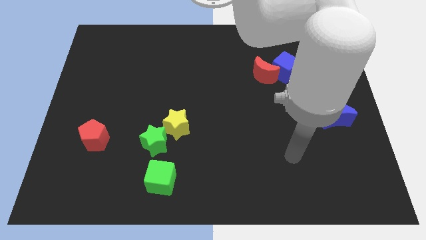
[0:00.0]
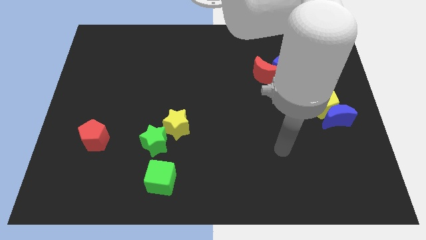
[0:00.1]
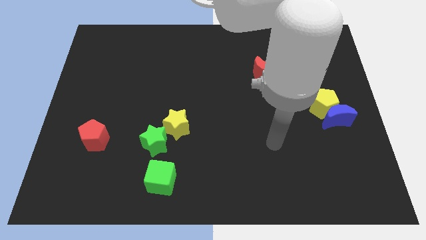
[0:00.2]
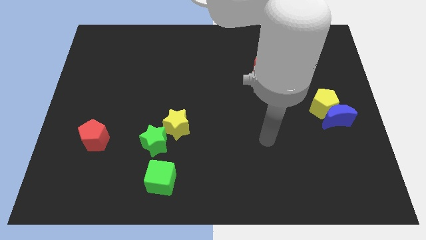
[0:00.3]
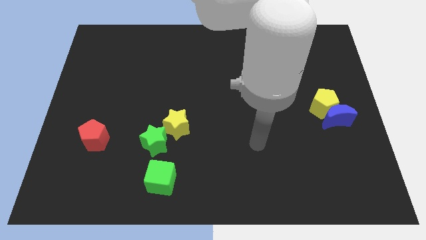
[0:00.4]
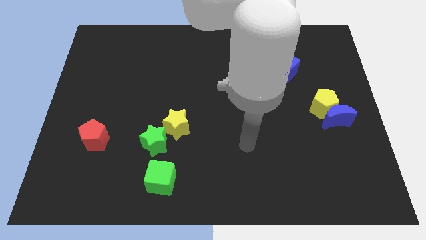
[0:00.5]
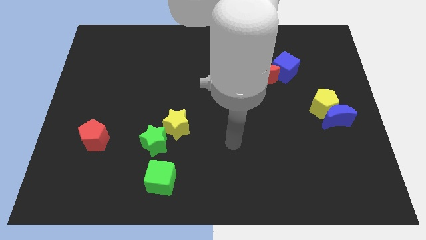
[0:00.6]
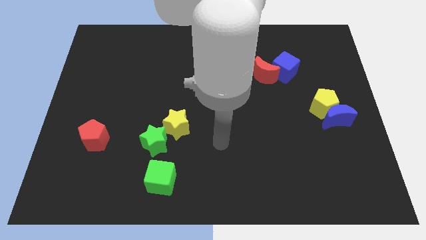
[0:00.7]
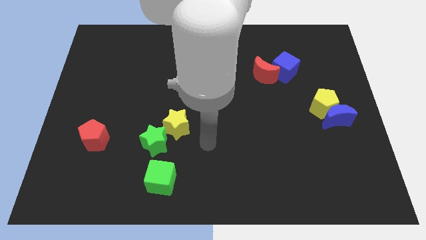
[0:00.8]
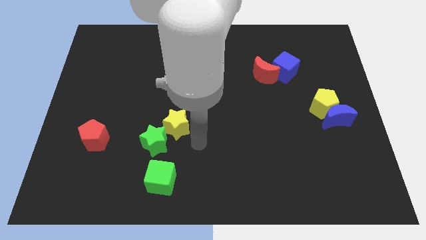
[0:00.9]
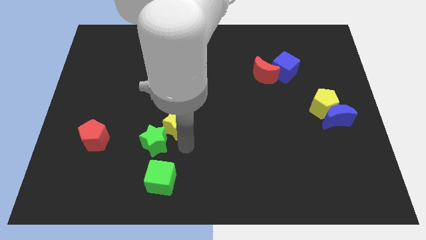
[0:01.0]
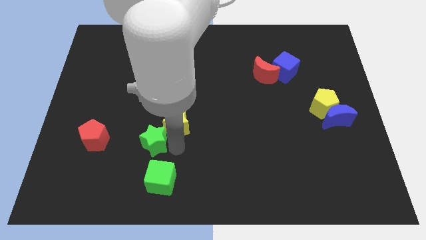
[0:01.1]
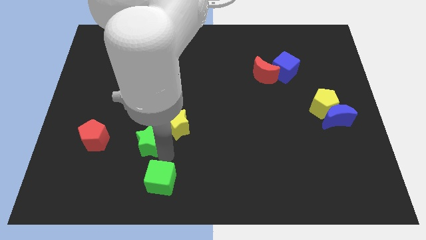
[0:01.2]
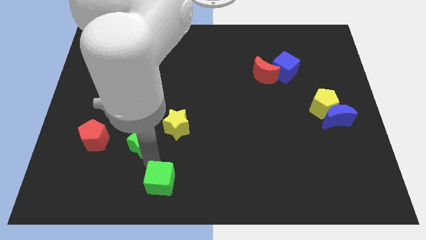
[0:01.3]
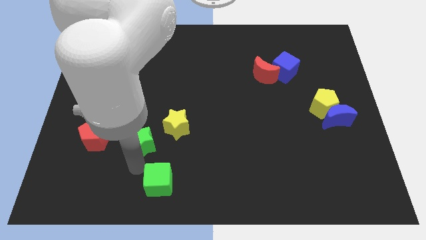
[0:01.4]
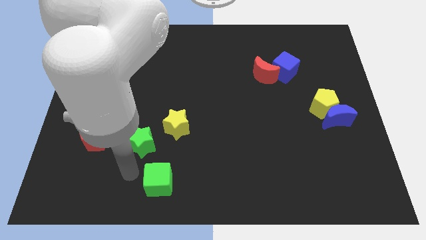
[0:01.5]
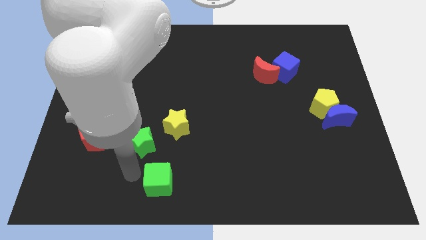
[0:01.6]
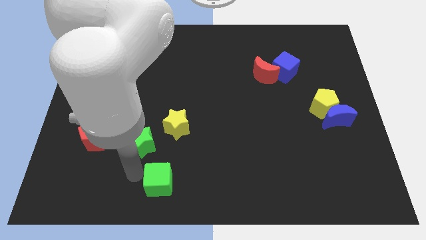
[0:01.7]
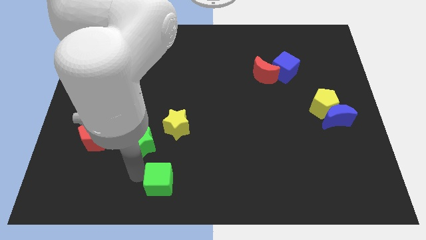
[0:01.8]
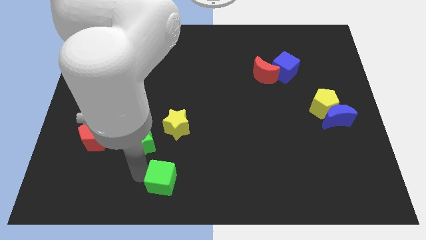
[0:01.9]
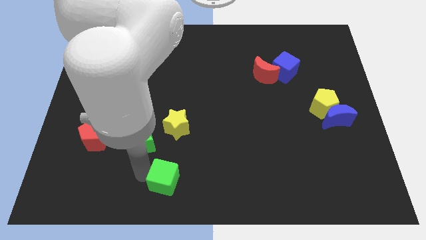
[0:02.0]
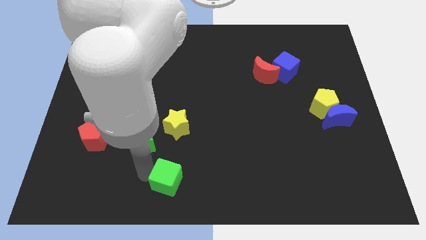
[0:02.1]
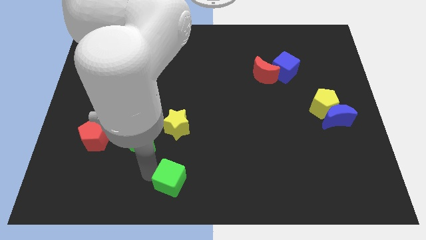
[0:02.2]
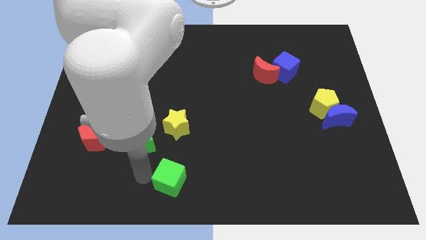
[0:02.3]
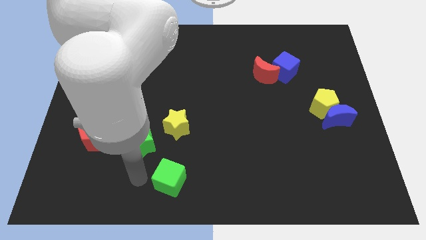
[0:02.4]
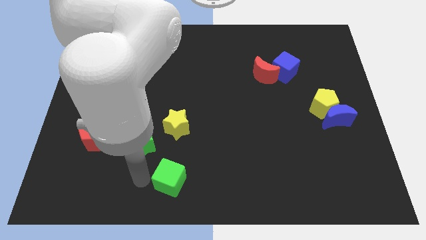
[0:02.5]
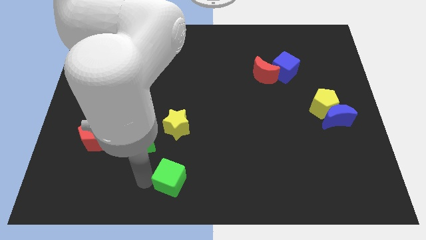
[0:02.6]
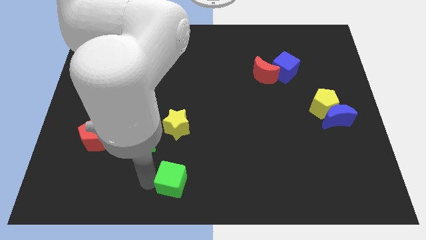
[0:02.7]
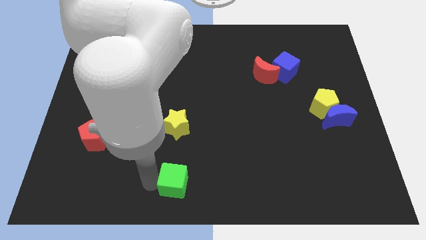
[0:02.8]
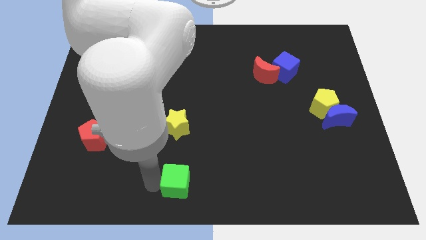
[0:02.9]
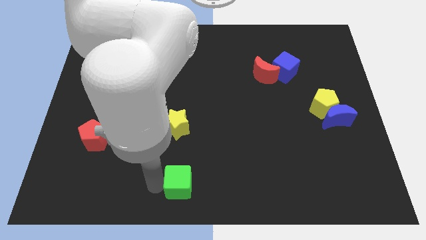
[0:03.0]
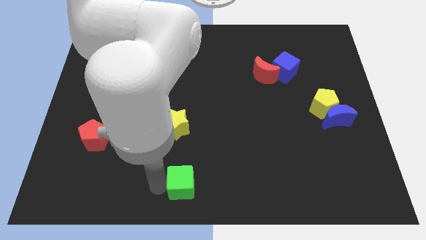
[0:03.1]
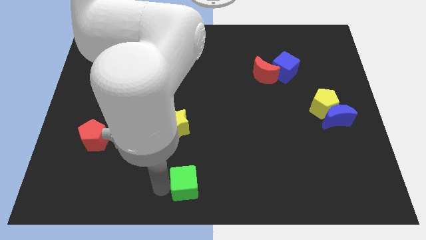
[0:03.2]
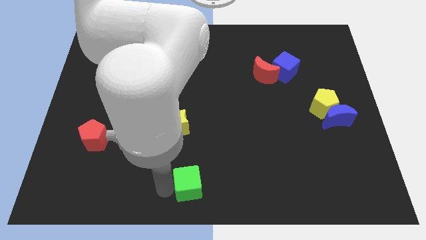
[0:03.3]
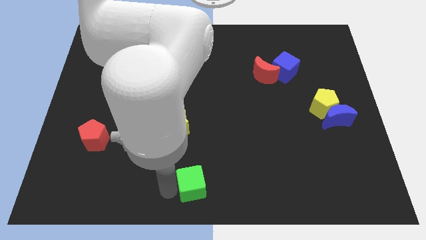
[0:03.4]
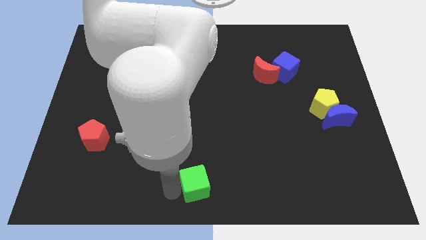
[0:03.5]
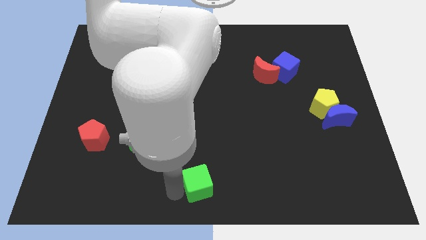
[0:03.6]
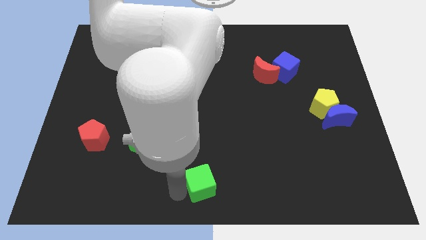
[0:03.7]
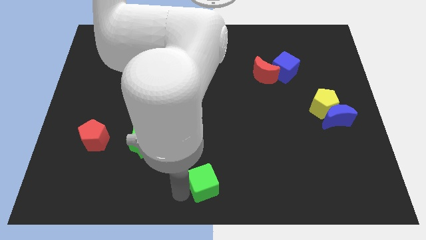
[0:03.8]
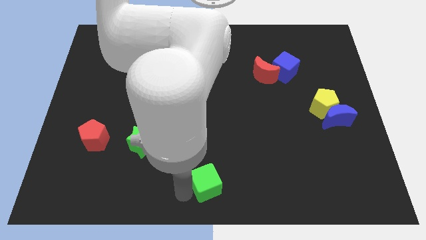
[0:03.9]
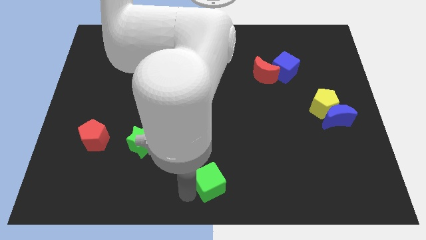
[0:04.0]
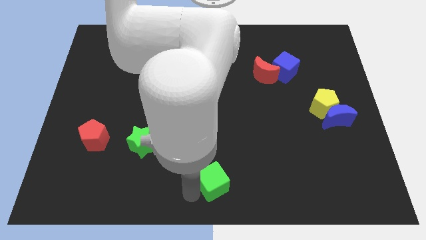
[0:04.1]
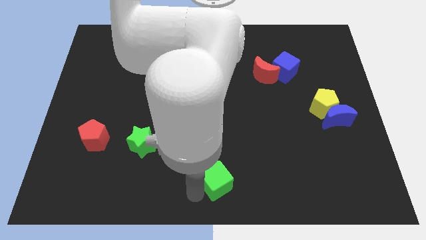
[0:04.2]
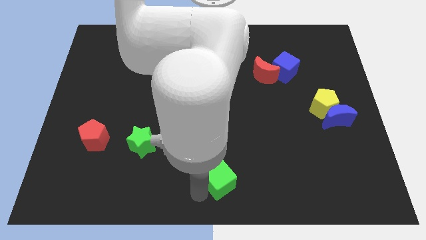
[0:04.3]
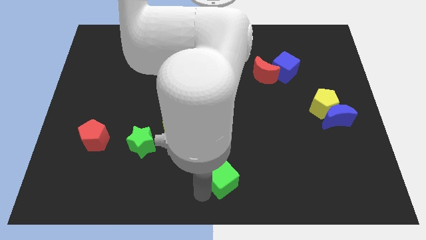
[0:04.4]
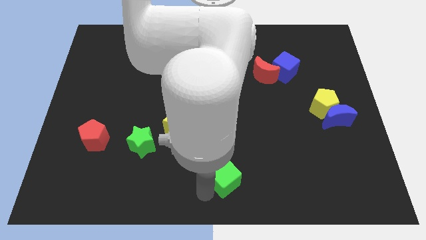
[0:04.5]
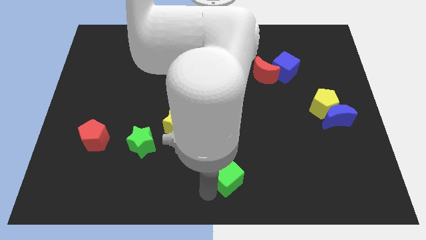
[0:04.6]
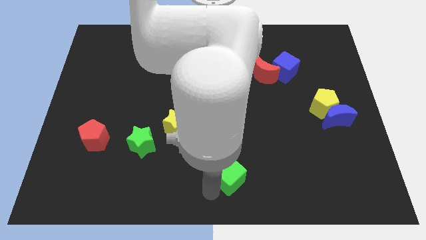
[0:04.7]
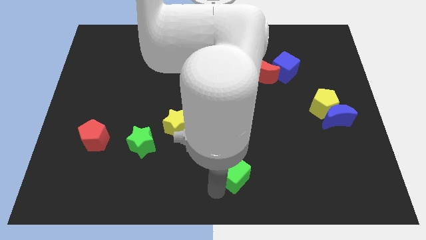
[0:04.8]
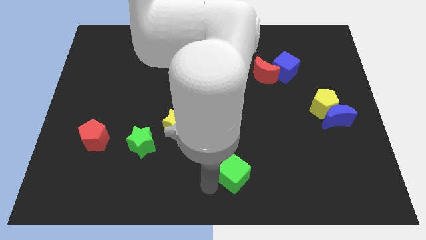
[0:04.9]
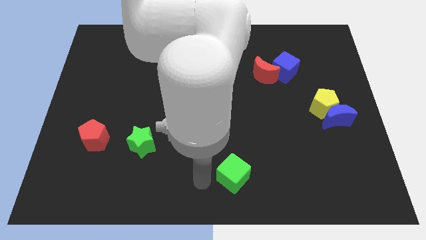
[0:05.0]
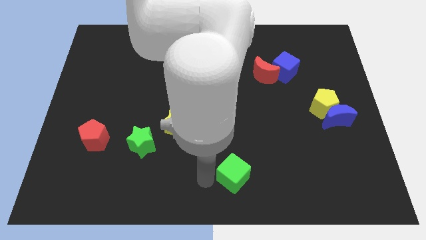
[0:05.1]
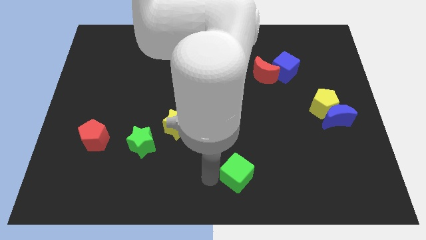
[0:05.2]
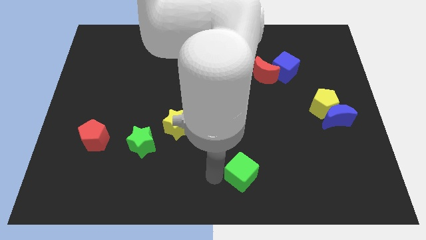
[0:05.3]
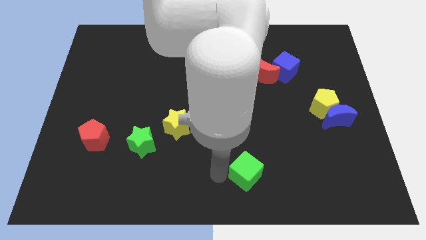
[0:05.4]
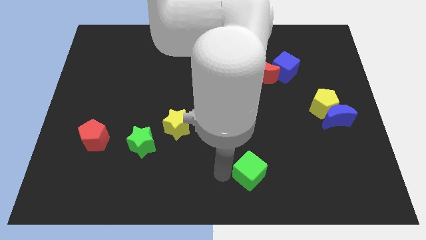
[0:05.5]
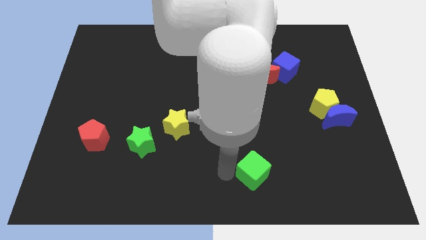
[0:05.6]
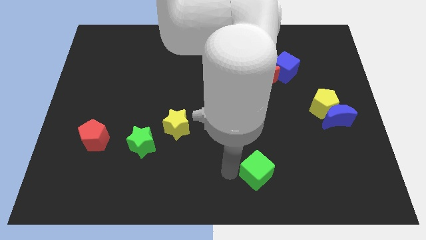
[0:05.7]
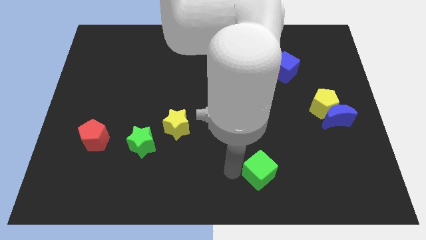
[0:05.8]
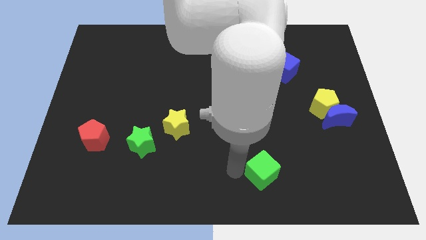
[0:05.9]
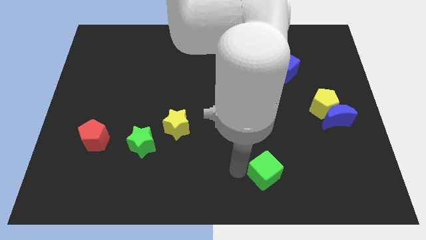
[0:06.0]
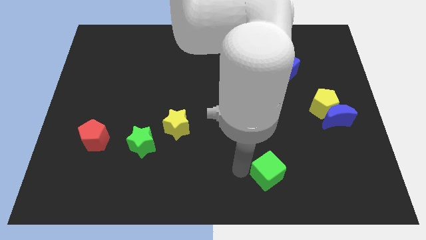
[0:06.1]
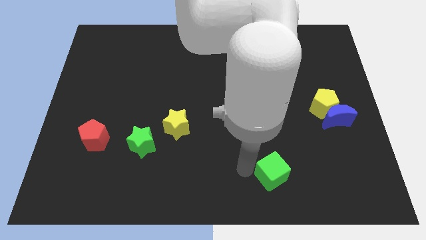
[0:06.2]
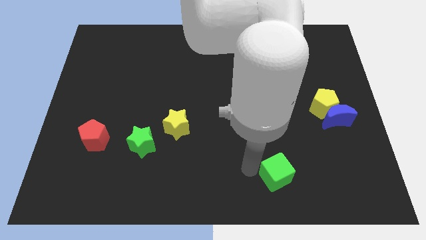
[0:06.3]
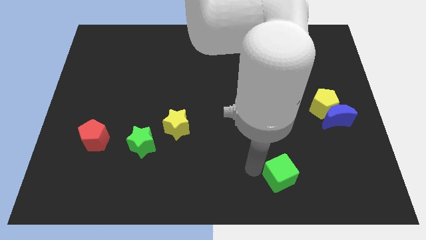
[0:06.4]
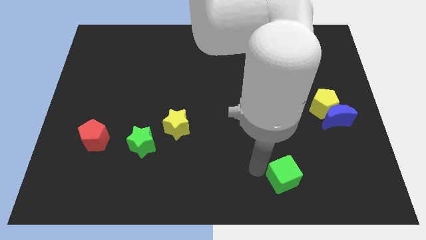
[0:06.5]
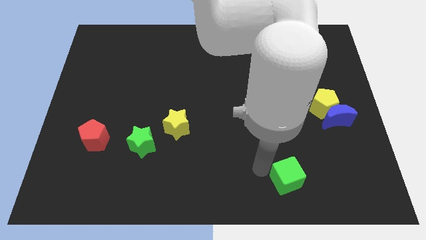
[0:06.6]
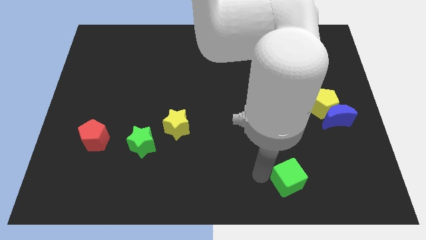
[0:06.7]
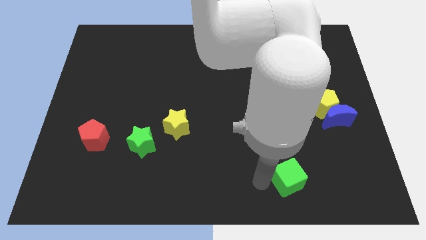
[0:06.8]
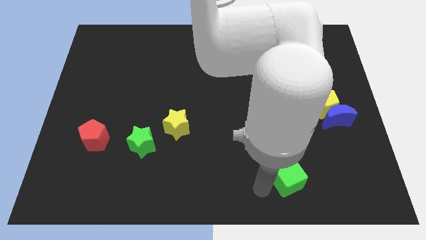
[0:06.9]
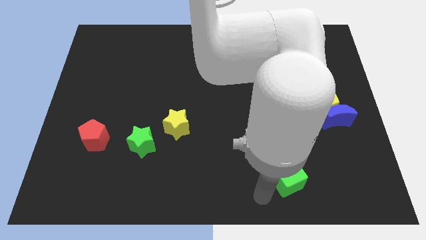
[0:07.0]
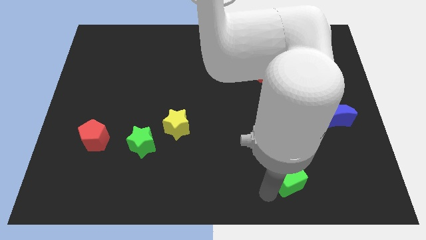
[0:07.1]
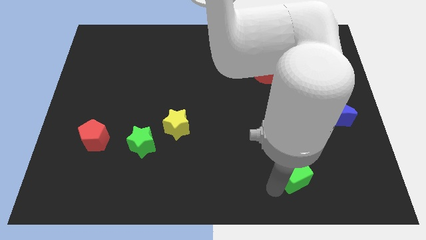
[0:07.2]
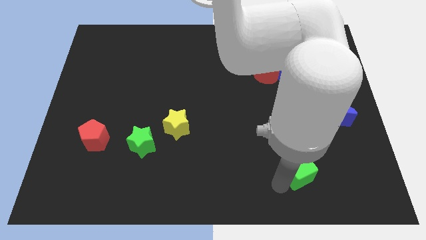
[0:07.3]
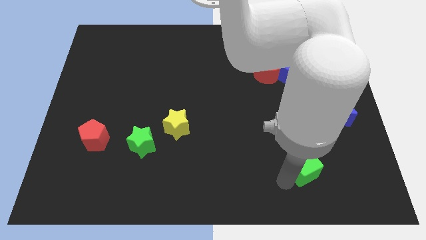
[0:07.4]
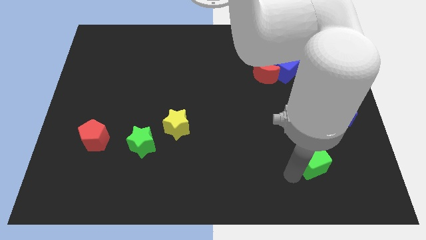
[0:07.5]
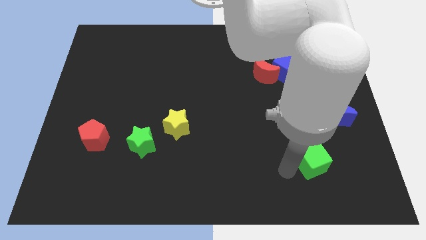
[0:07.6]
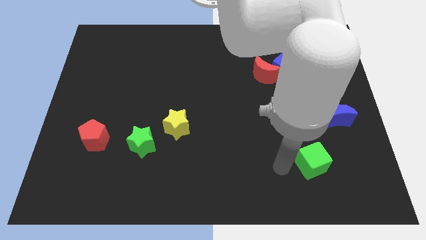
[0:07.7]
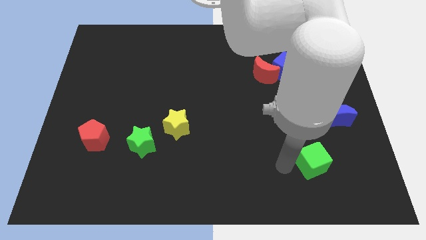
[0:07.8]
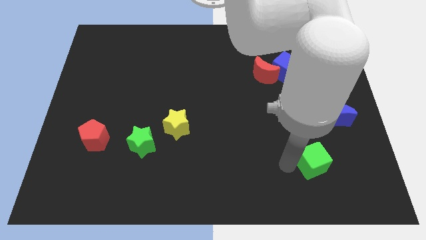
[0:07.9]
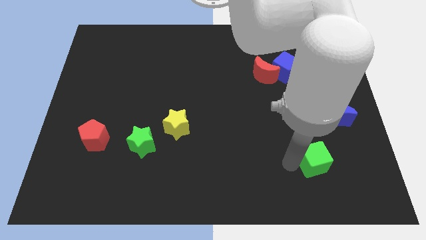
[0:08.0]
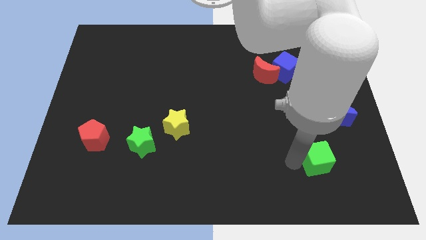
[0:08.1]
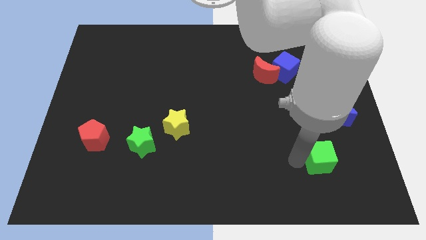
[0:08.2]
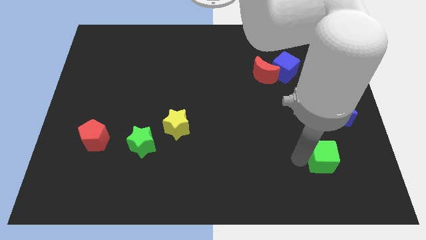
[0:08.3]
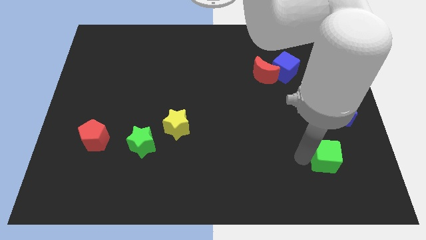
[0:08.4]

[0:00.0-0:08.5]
push the green cube to the bottom side of the blue moon
